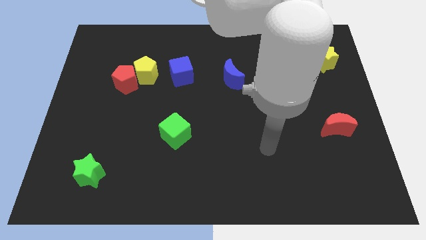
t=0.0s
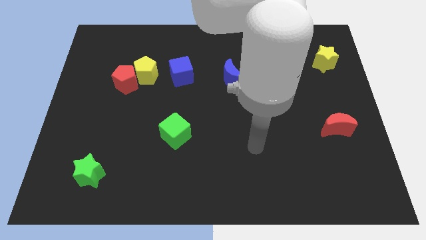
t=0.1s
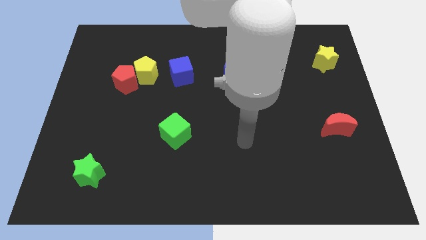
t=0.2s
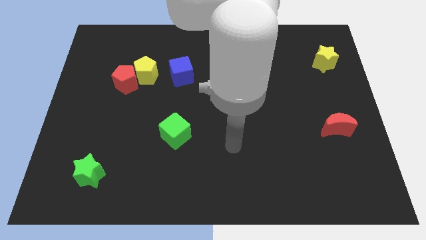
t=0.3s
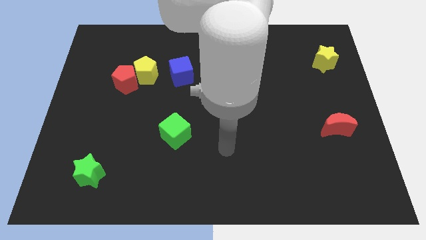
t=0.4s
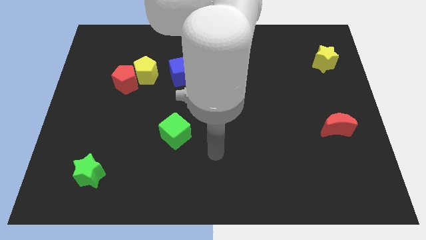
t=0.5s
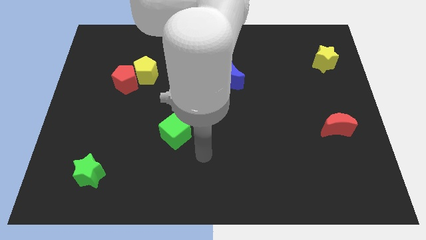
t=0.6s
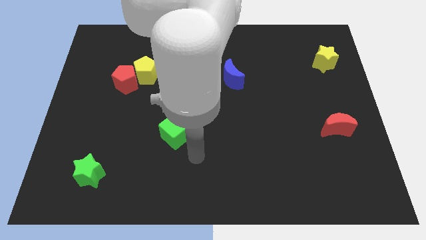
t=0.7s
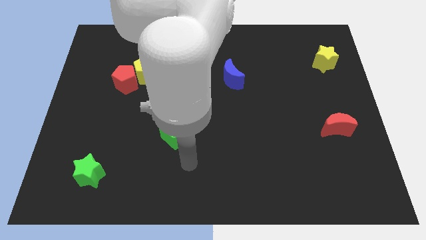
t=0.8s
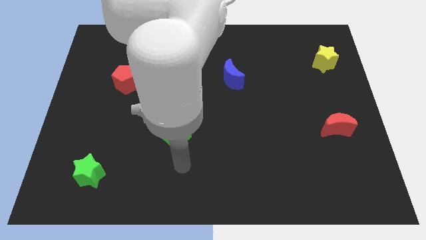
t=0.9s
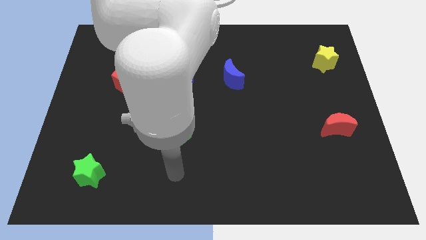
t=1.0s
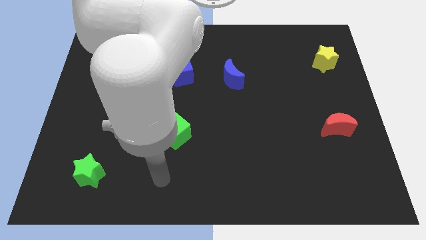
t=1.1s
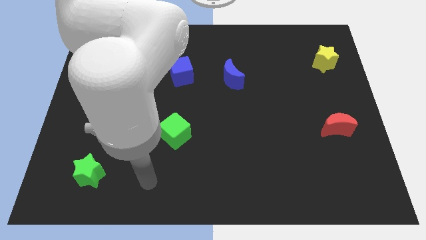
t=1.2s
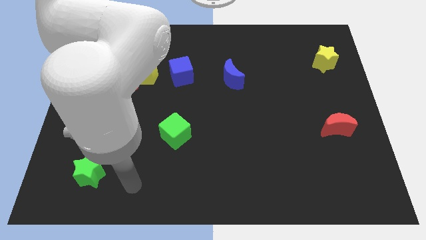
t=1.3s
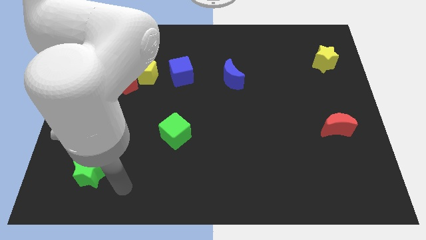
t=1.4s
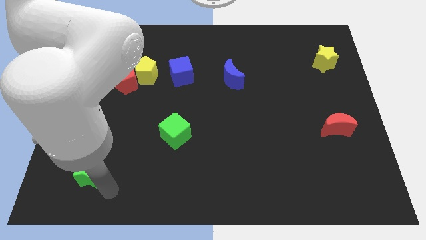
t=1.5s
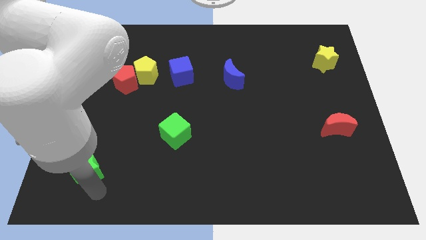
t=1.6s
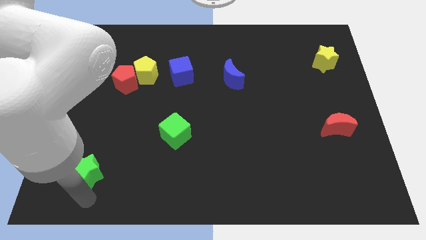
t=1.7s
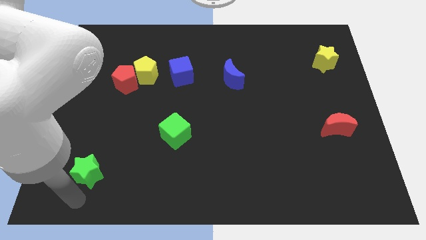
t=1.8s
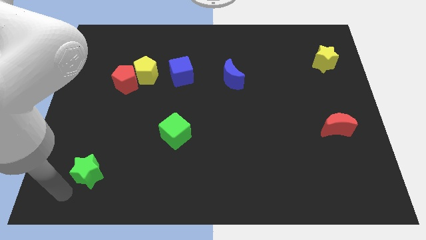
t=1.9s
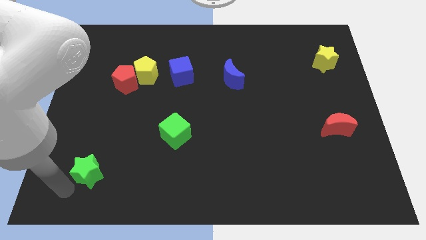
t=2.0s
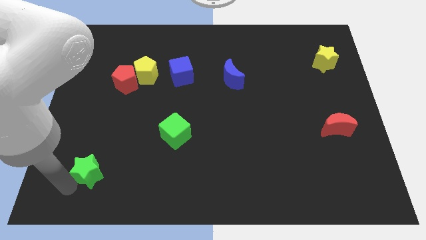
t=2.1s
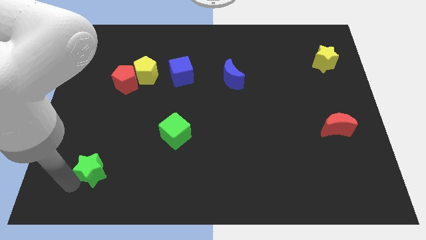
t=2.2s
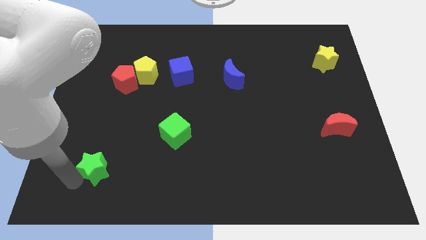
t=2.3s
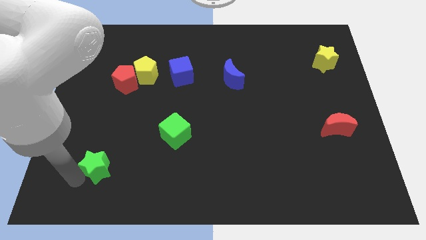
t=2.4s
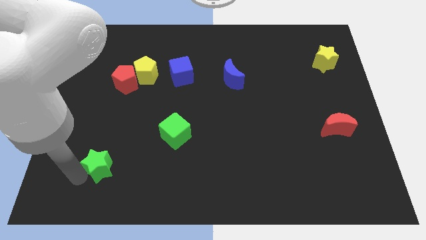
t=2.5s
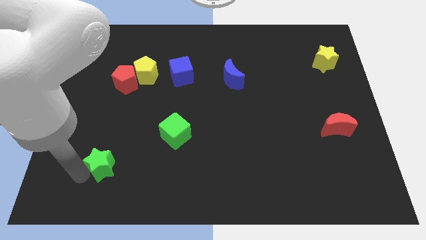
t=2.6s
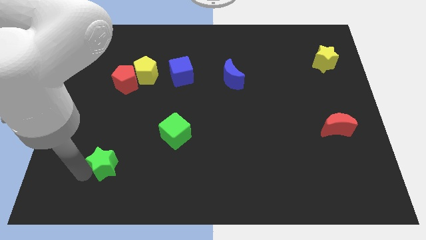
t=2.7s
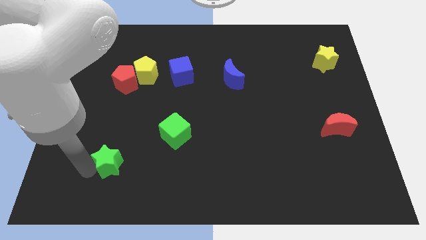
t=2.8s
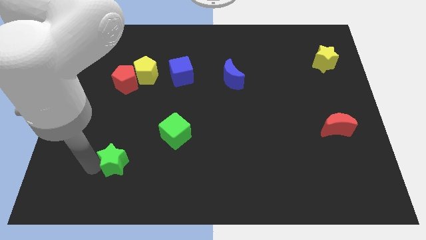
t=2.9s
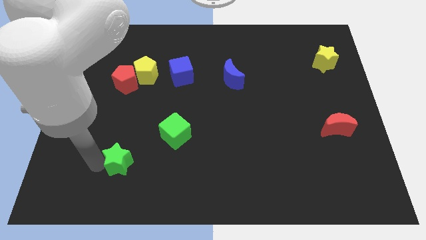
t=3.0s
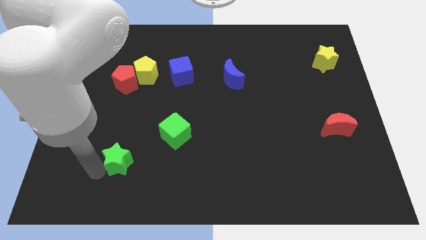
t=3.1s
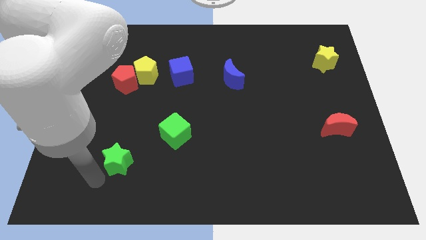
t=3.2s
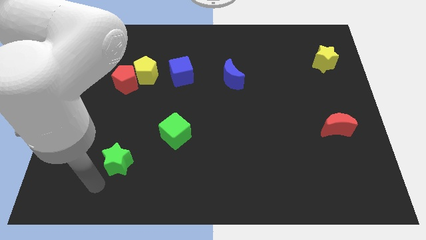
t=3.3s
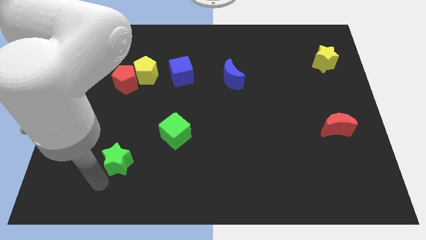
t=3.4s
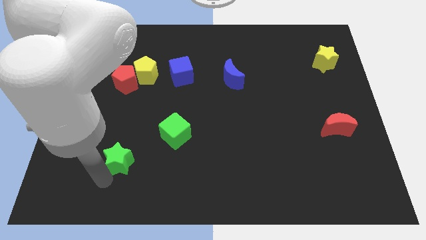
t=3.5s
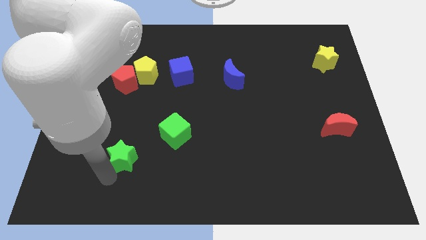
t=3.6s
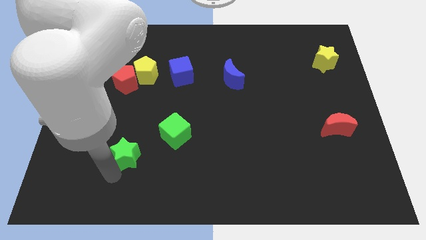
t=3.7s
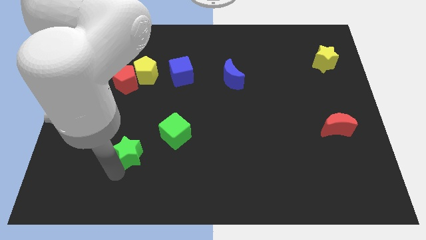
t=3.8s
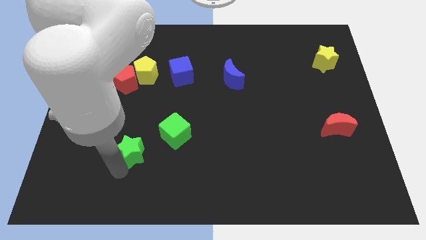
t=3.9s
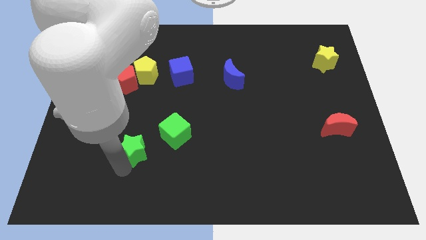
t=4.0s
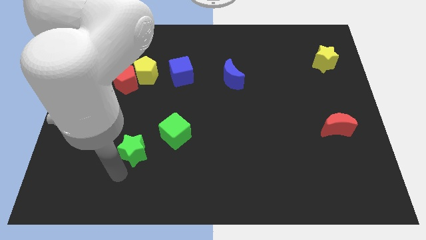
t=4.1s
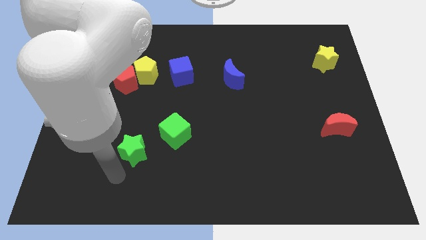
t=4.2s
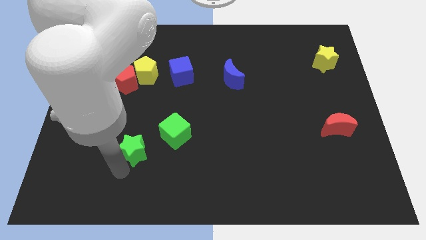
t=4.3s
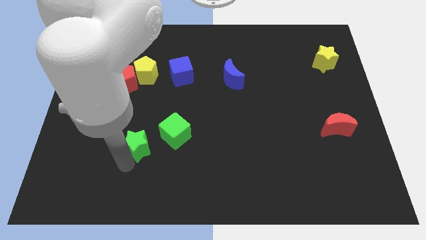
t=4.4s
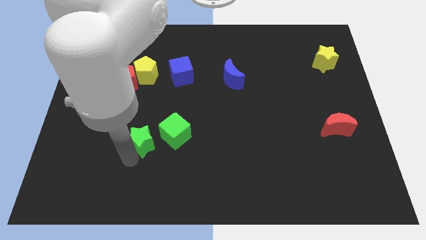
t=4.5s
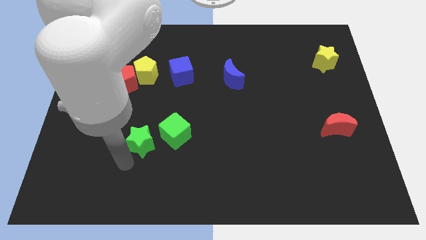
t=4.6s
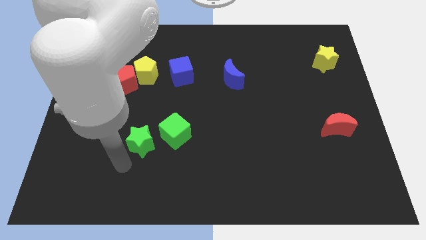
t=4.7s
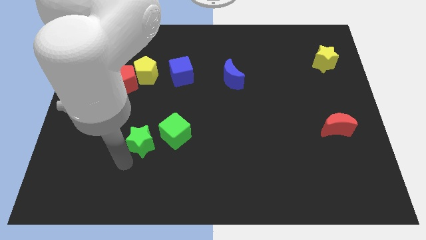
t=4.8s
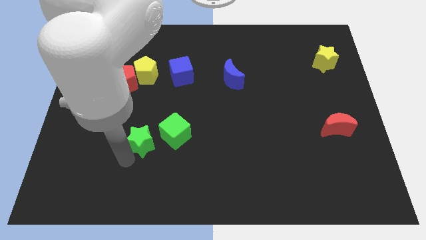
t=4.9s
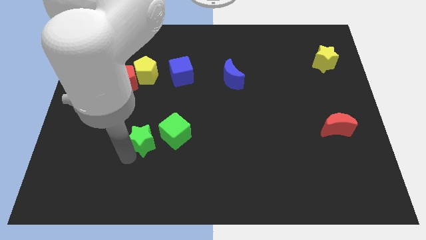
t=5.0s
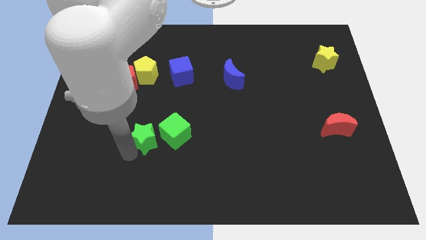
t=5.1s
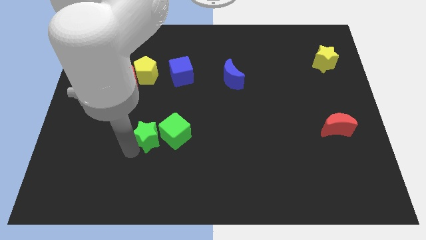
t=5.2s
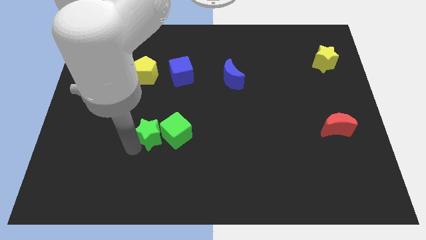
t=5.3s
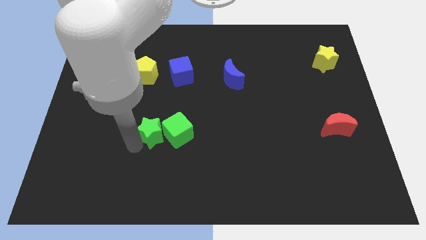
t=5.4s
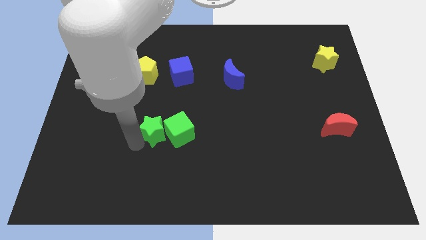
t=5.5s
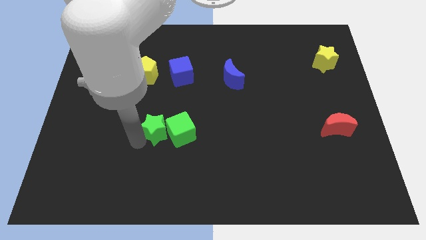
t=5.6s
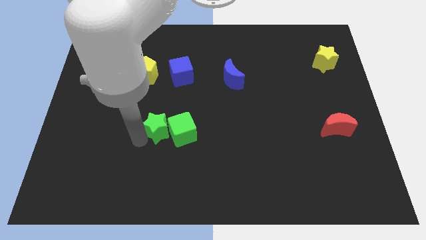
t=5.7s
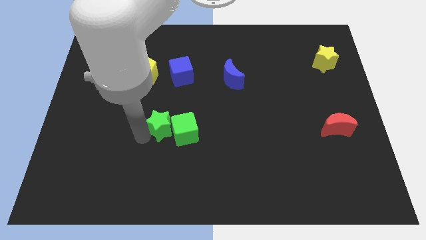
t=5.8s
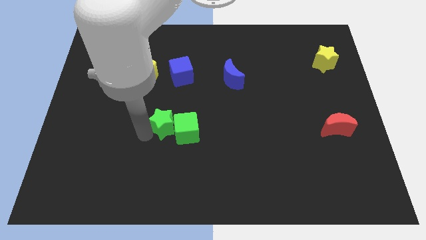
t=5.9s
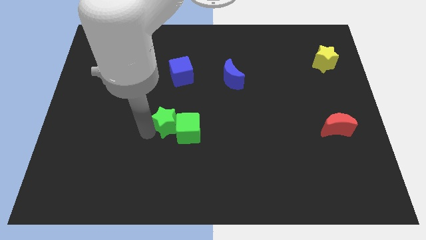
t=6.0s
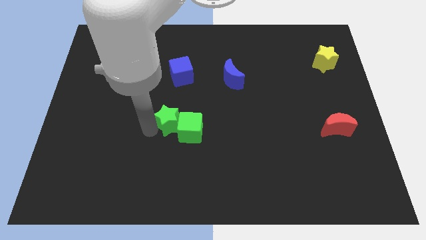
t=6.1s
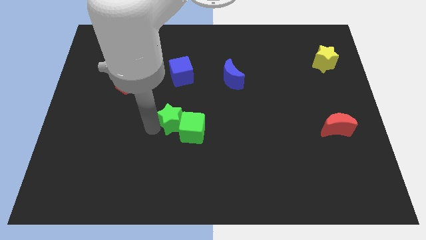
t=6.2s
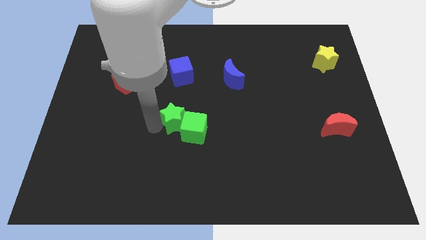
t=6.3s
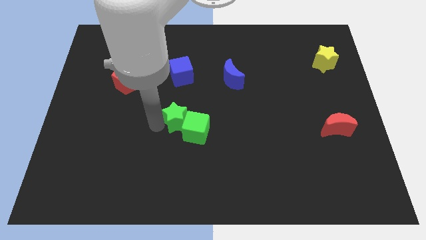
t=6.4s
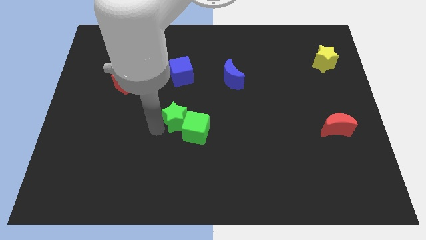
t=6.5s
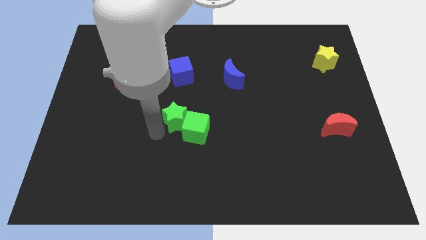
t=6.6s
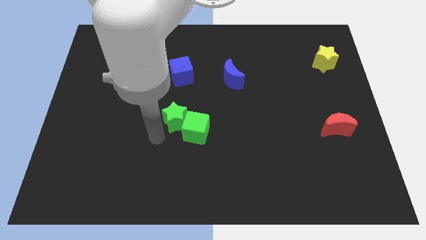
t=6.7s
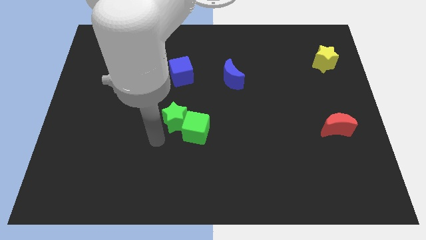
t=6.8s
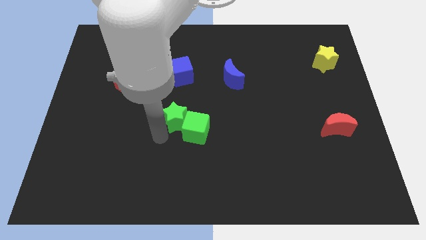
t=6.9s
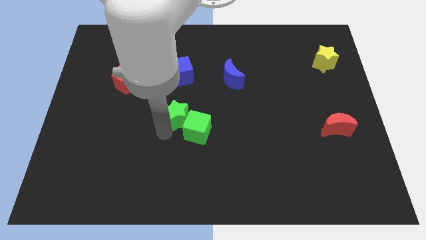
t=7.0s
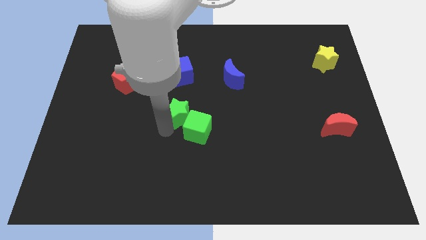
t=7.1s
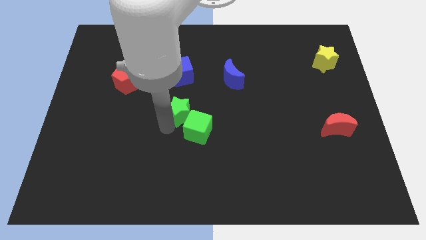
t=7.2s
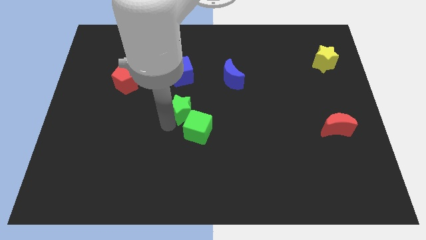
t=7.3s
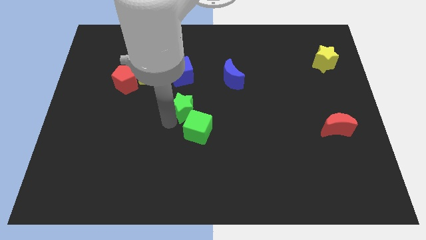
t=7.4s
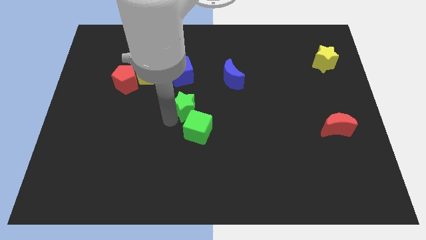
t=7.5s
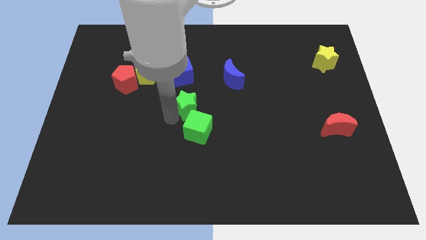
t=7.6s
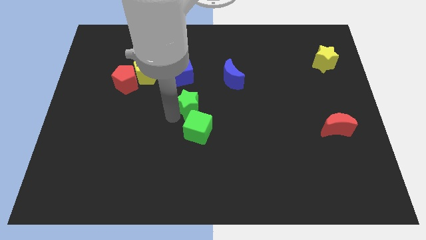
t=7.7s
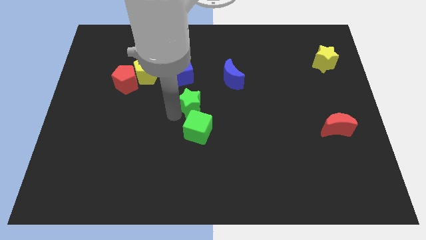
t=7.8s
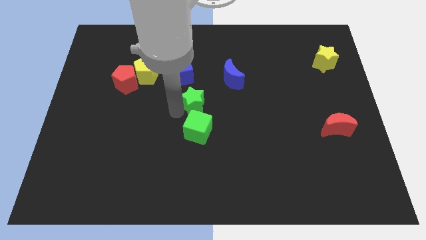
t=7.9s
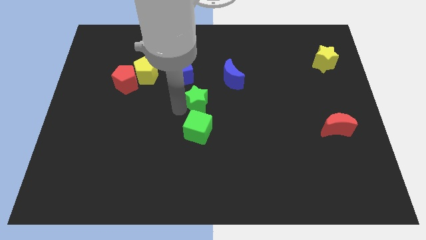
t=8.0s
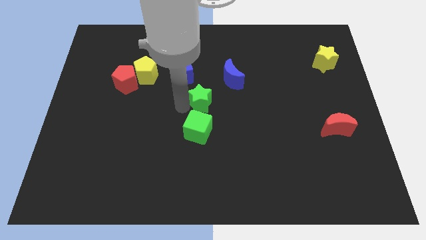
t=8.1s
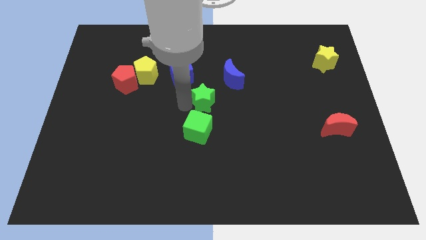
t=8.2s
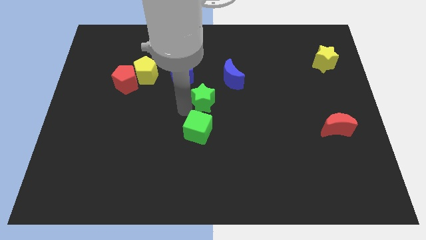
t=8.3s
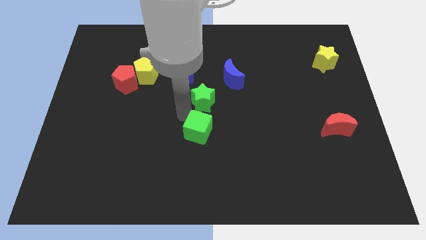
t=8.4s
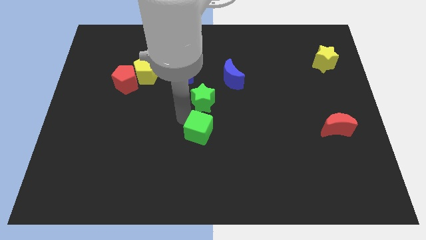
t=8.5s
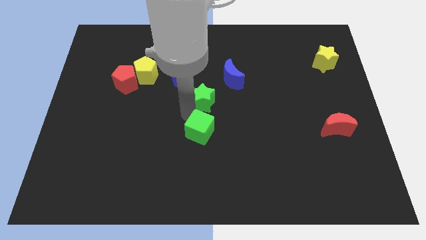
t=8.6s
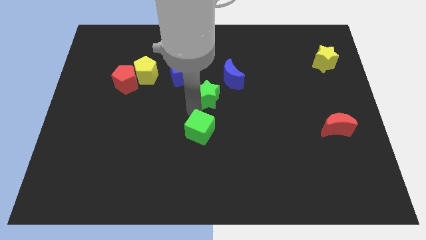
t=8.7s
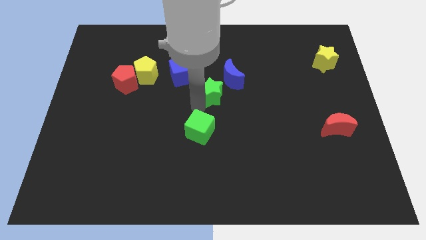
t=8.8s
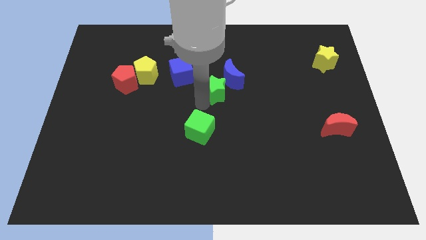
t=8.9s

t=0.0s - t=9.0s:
push the green star towards the blue moon
